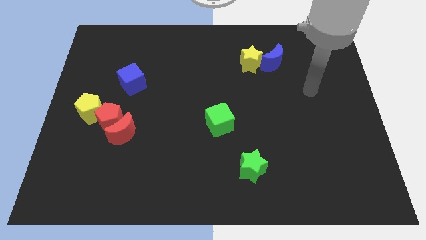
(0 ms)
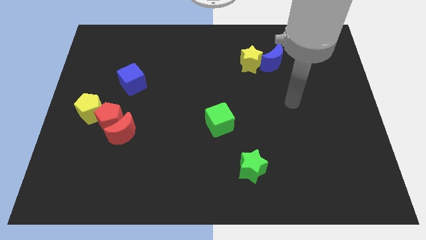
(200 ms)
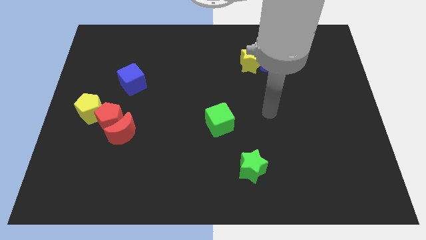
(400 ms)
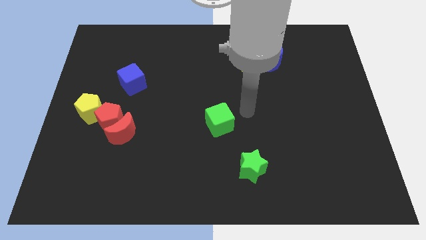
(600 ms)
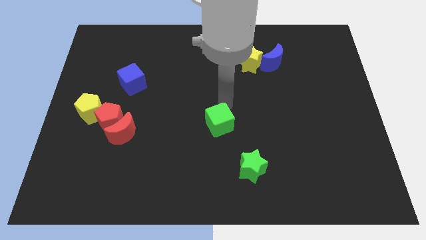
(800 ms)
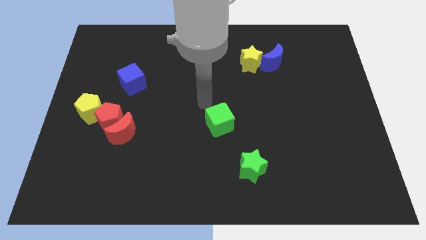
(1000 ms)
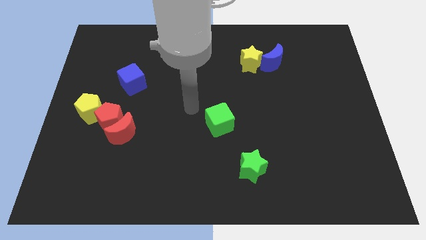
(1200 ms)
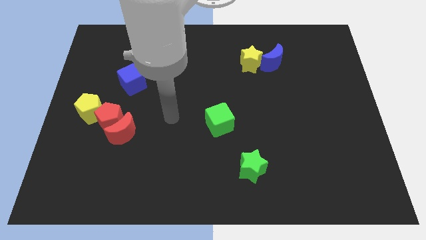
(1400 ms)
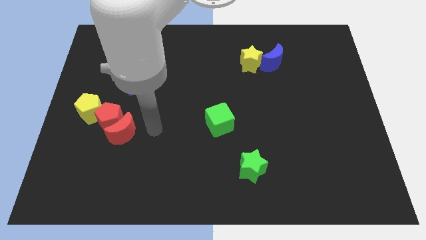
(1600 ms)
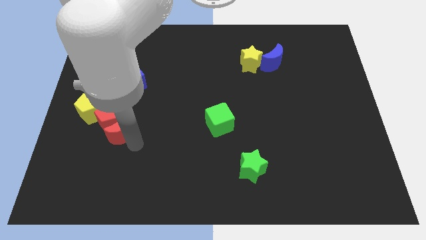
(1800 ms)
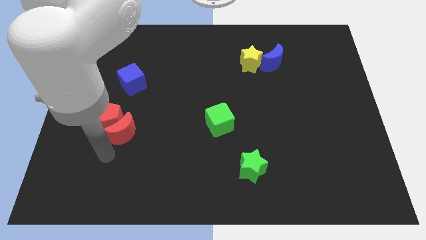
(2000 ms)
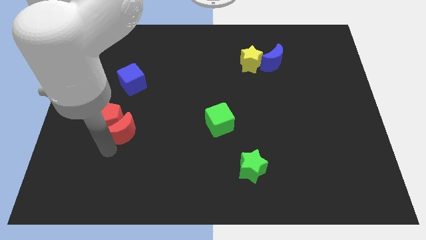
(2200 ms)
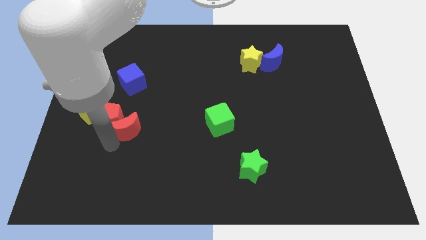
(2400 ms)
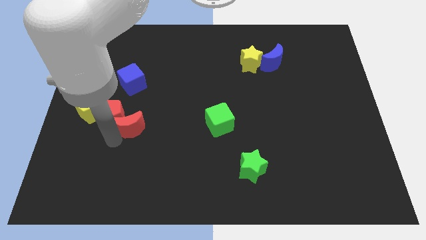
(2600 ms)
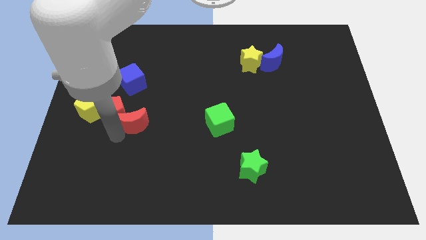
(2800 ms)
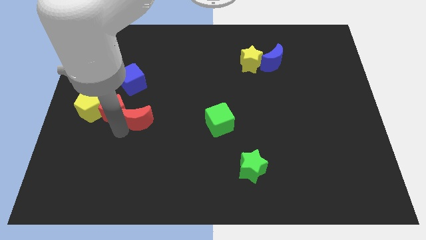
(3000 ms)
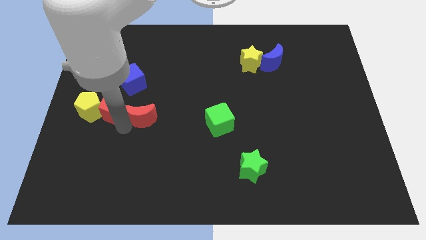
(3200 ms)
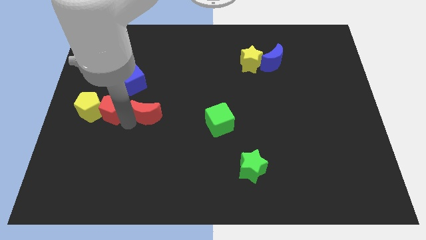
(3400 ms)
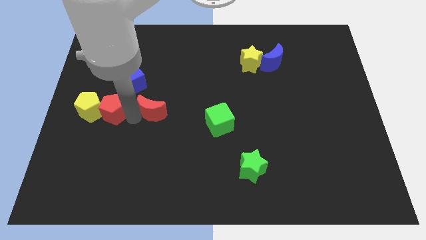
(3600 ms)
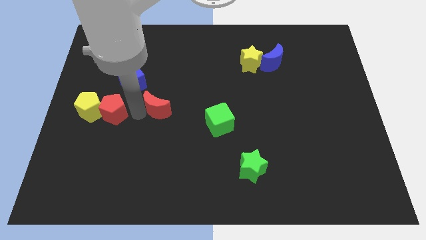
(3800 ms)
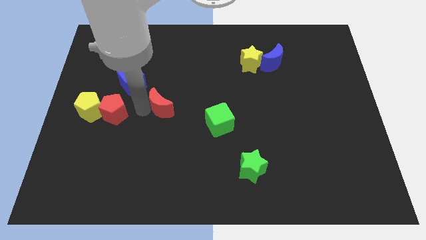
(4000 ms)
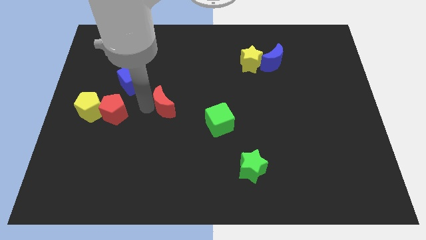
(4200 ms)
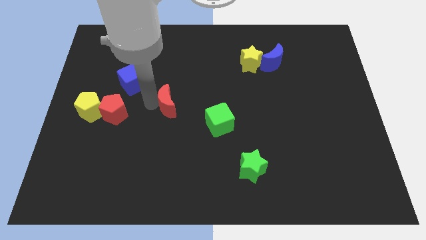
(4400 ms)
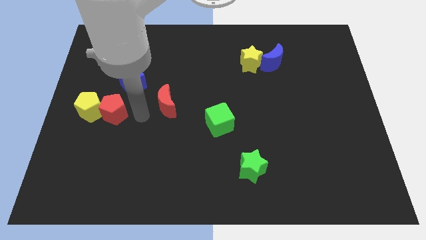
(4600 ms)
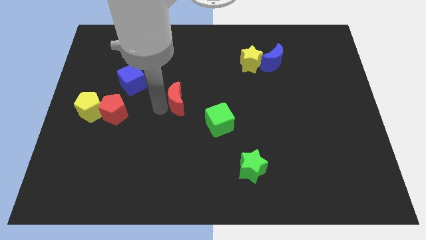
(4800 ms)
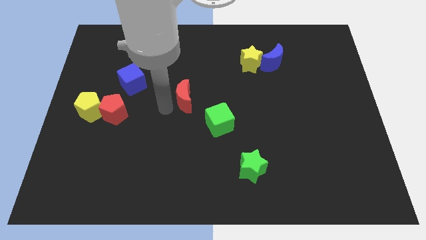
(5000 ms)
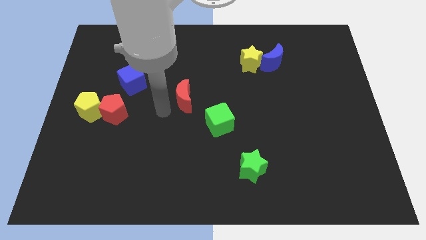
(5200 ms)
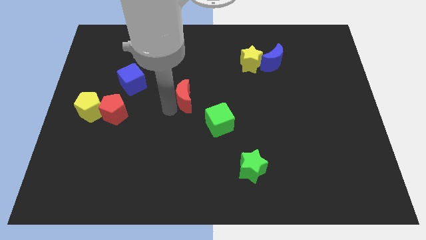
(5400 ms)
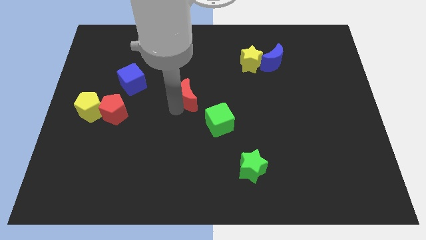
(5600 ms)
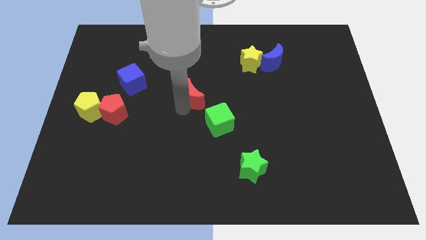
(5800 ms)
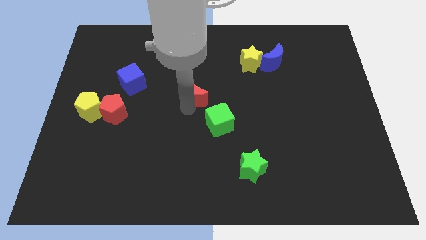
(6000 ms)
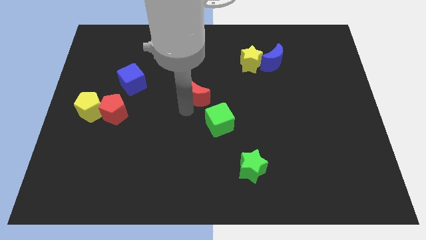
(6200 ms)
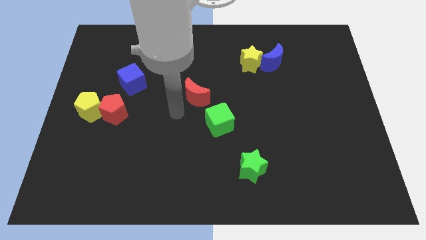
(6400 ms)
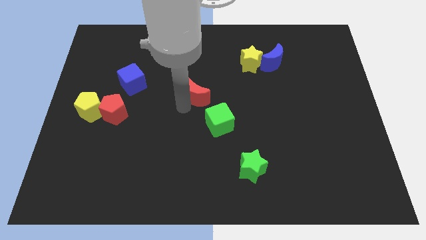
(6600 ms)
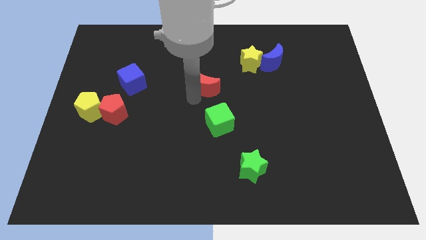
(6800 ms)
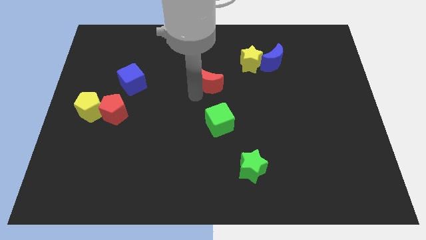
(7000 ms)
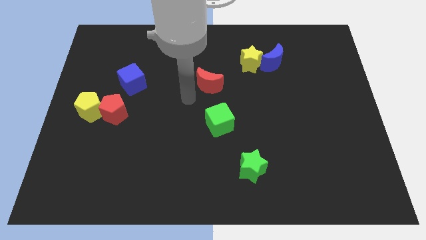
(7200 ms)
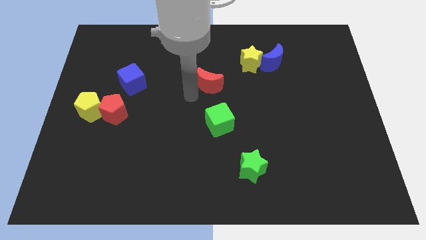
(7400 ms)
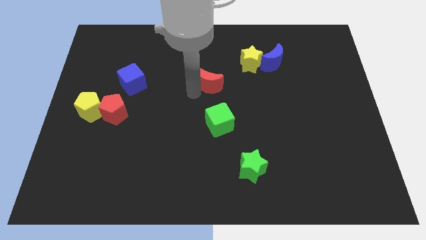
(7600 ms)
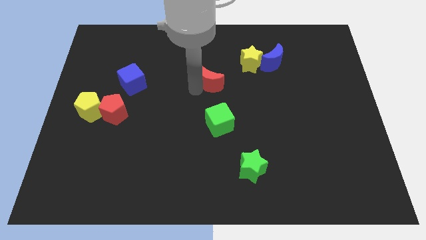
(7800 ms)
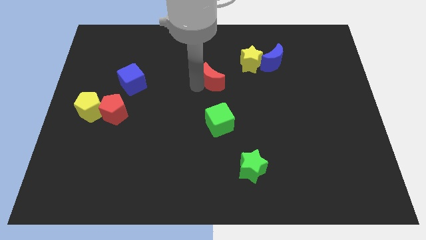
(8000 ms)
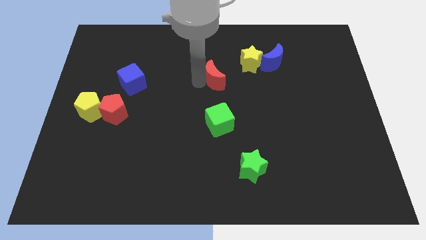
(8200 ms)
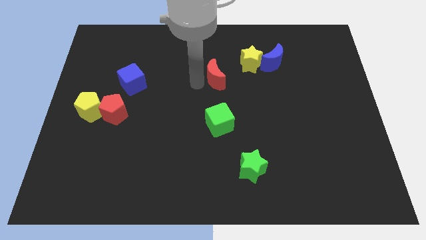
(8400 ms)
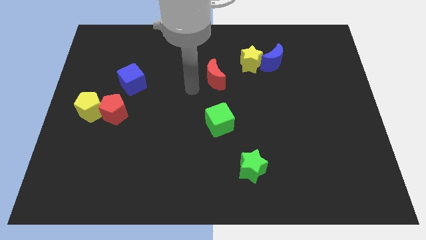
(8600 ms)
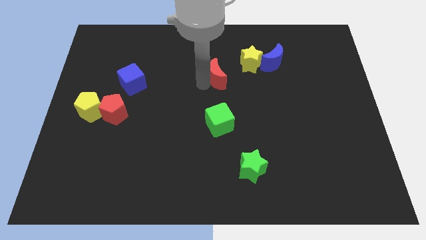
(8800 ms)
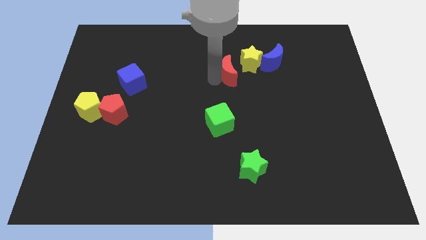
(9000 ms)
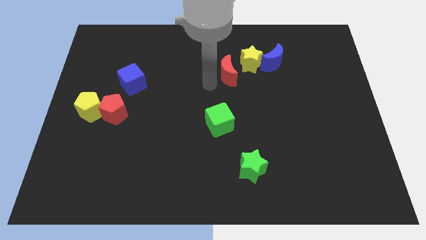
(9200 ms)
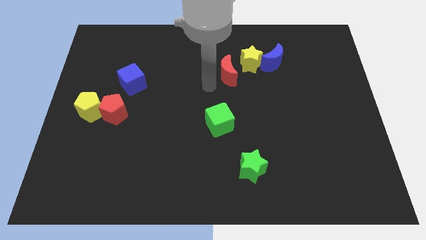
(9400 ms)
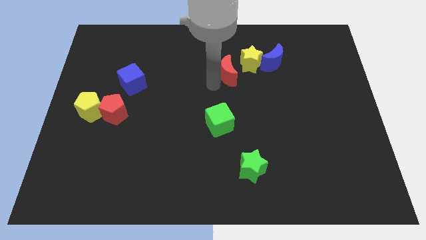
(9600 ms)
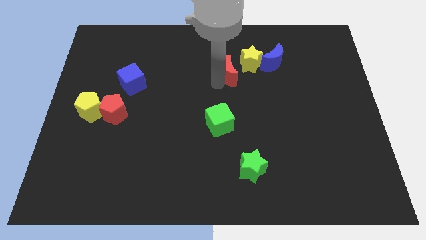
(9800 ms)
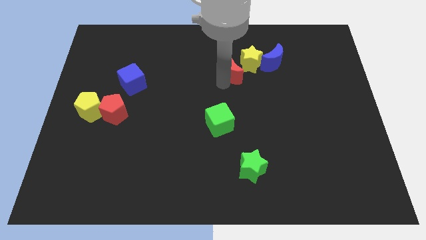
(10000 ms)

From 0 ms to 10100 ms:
move the red moon next to the yellow star

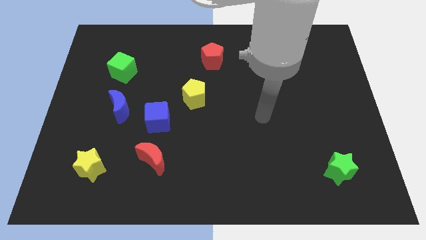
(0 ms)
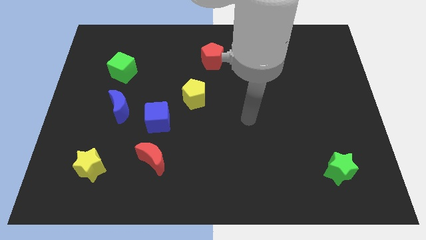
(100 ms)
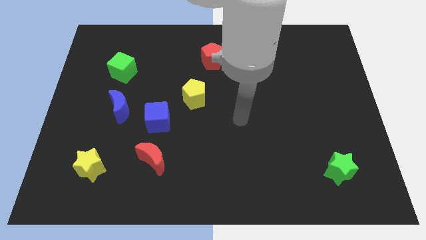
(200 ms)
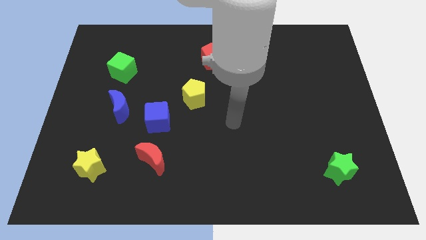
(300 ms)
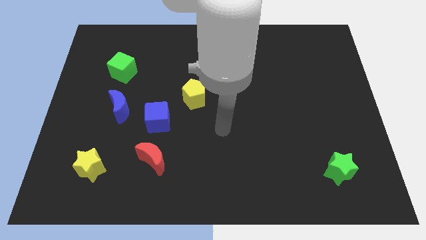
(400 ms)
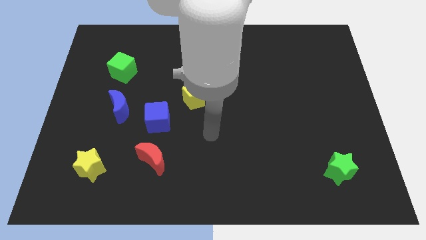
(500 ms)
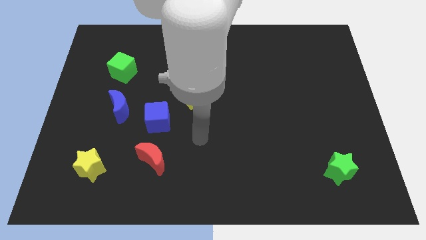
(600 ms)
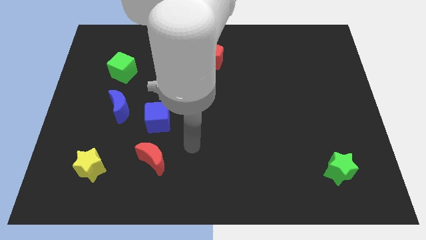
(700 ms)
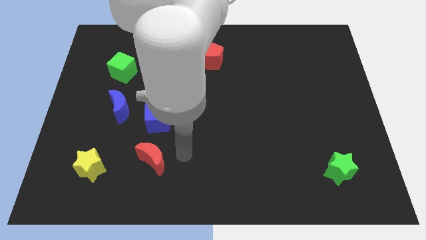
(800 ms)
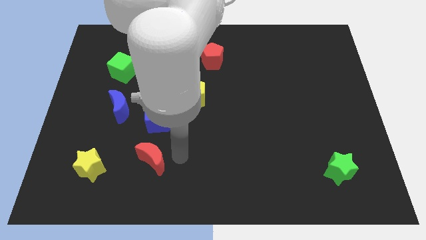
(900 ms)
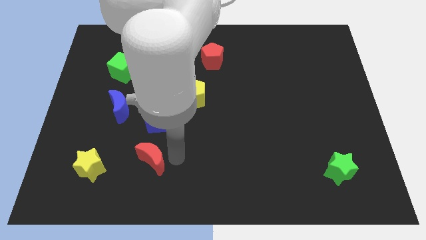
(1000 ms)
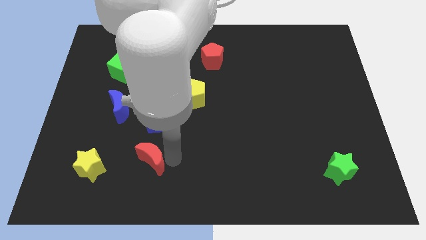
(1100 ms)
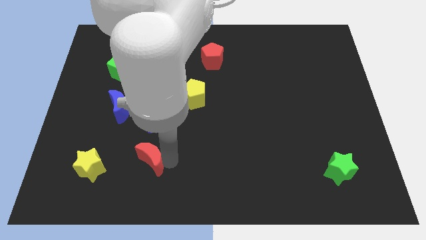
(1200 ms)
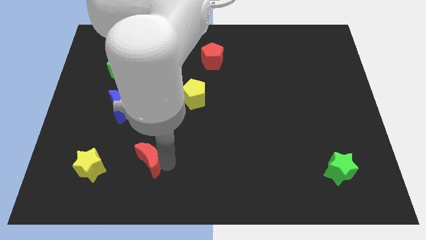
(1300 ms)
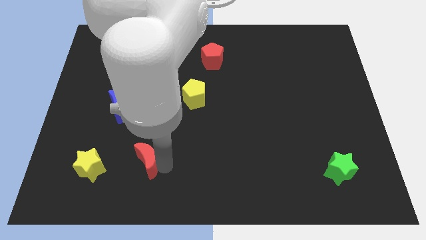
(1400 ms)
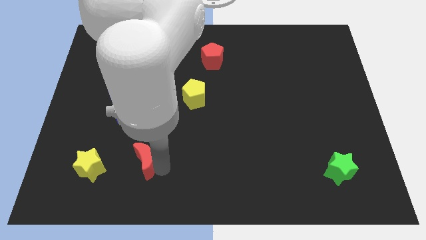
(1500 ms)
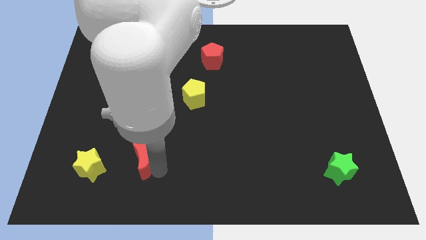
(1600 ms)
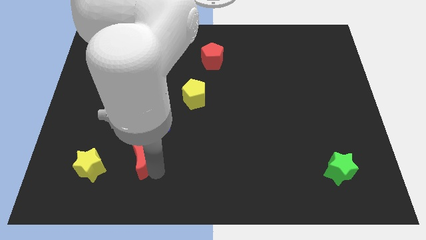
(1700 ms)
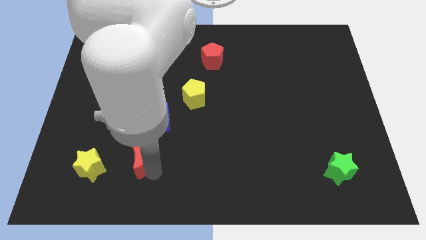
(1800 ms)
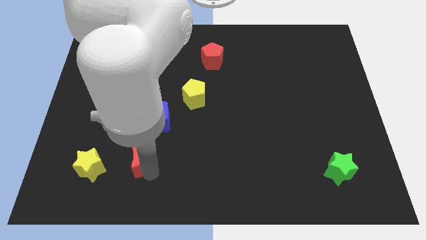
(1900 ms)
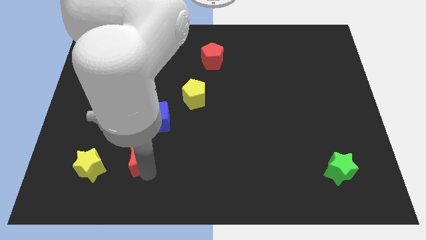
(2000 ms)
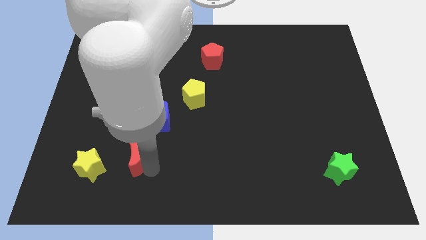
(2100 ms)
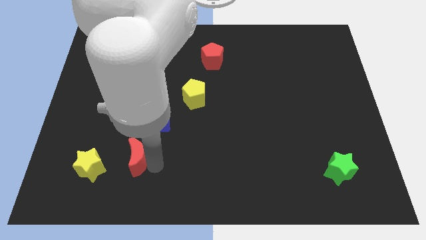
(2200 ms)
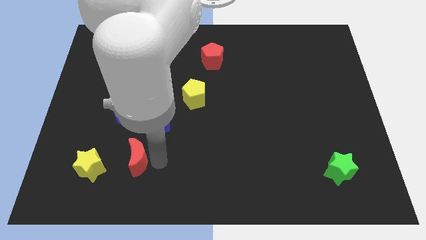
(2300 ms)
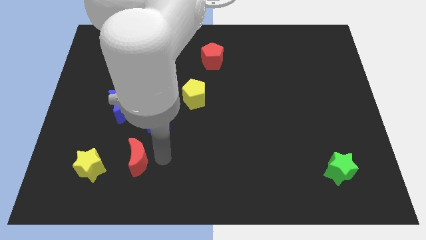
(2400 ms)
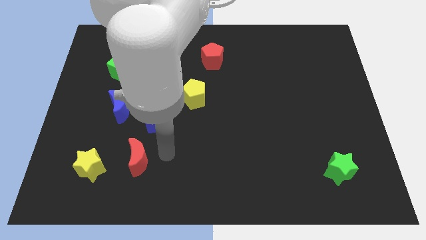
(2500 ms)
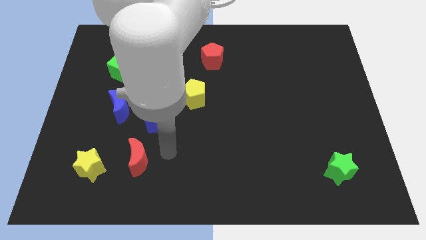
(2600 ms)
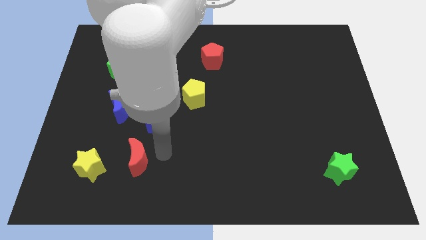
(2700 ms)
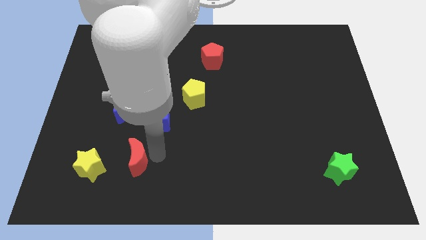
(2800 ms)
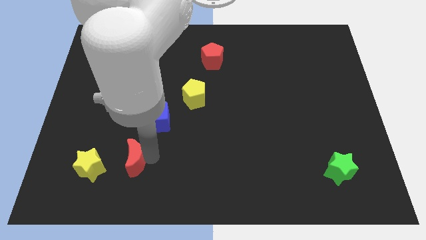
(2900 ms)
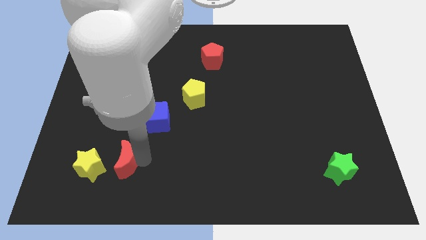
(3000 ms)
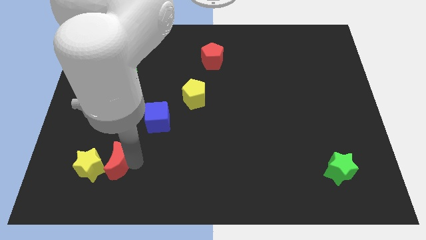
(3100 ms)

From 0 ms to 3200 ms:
push the red moon to the yellow star
